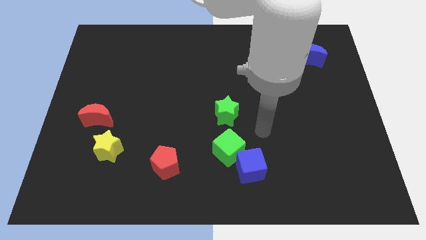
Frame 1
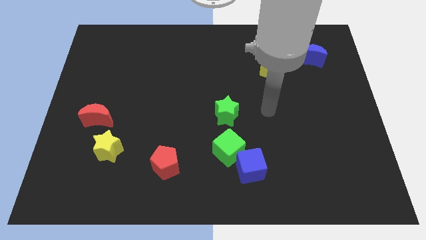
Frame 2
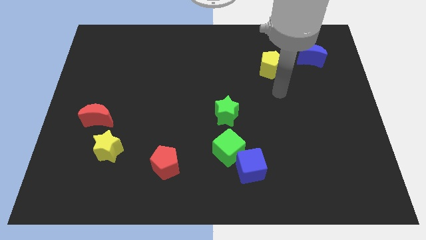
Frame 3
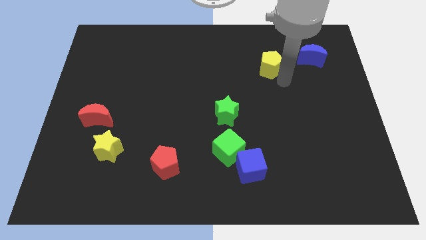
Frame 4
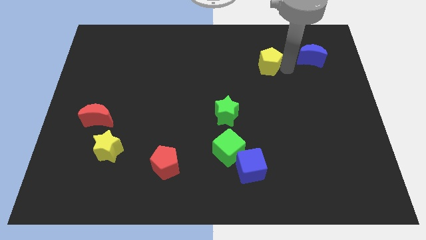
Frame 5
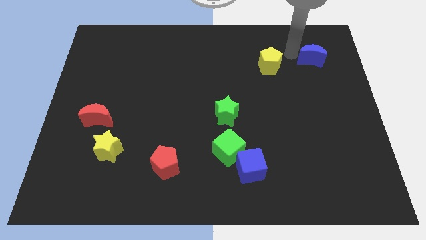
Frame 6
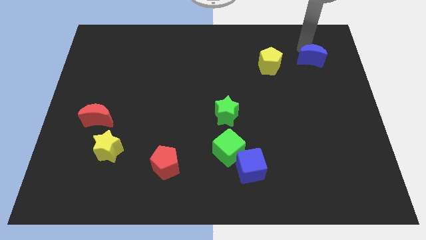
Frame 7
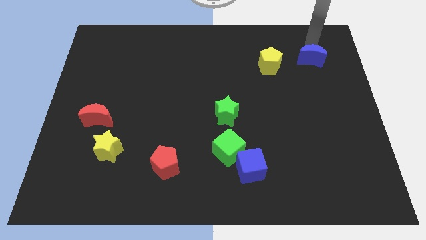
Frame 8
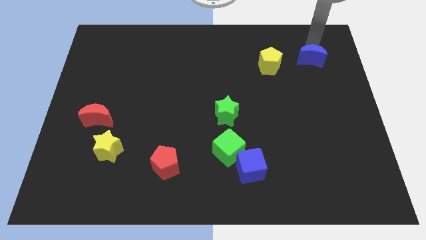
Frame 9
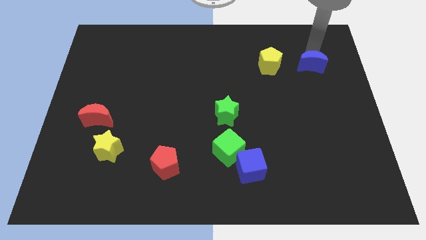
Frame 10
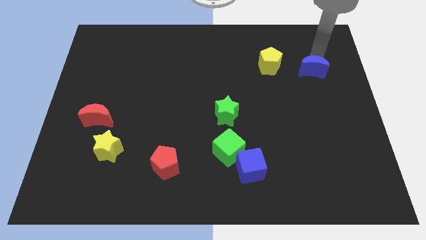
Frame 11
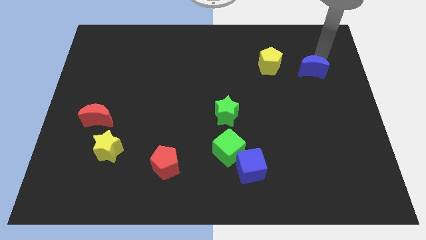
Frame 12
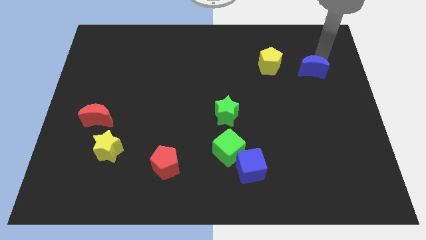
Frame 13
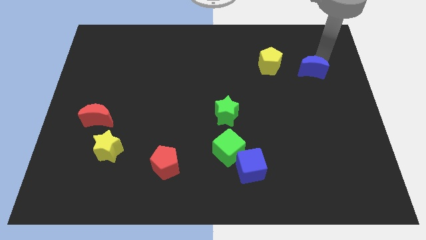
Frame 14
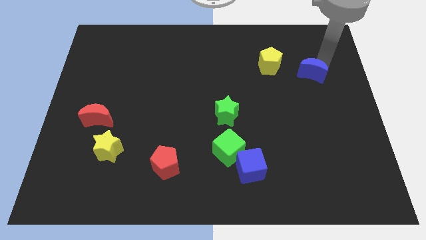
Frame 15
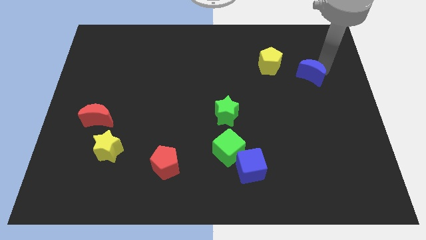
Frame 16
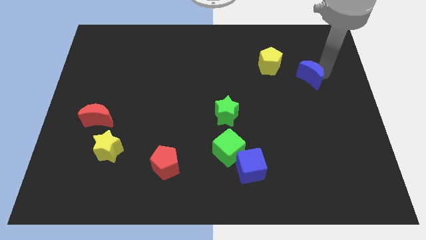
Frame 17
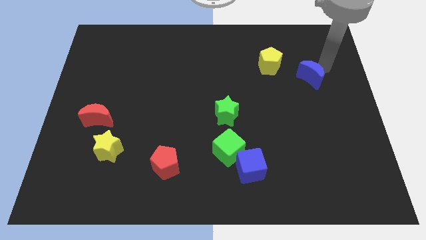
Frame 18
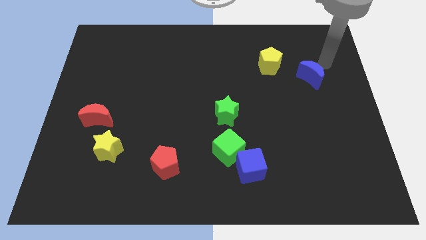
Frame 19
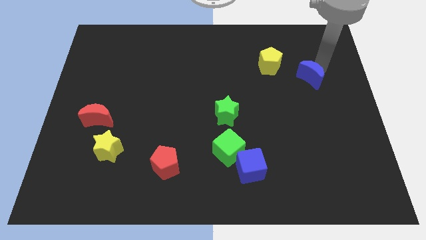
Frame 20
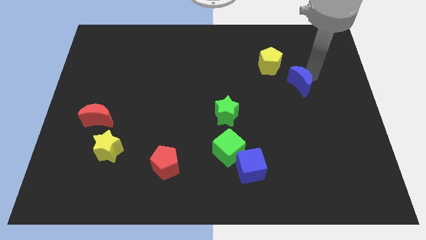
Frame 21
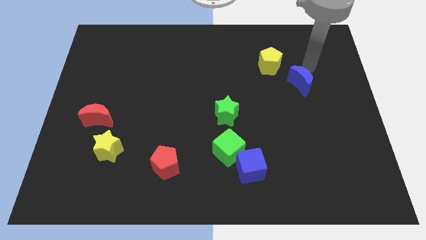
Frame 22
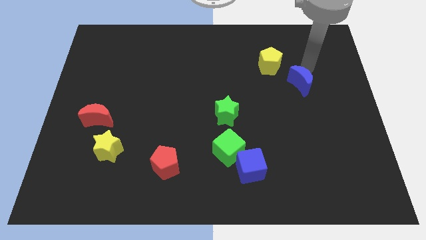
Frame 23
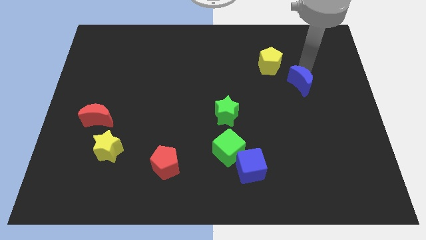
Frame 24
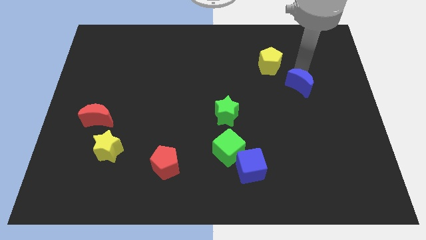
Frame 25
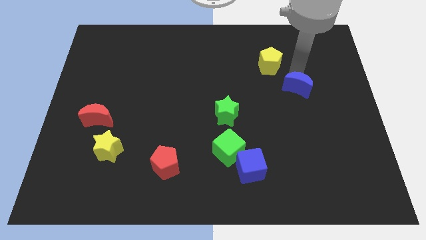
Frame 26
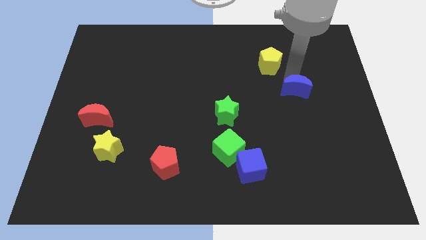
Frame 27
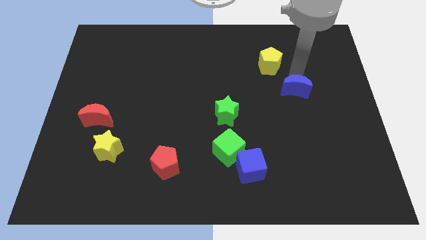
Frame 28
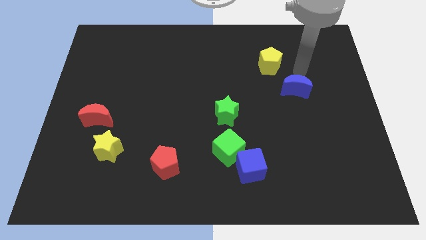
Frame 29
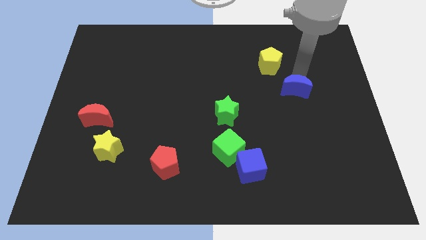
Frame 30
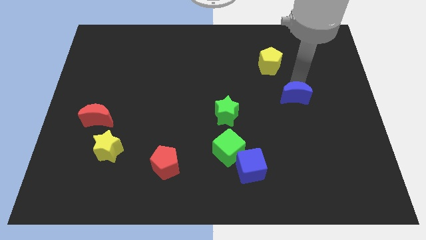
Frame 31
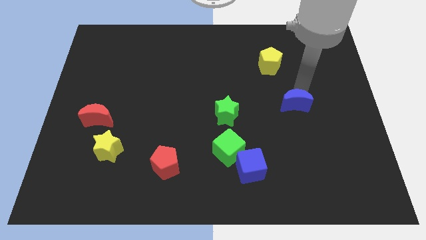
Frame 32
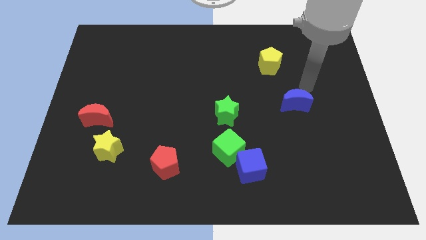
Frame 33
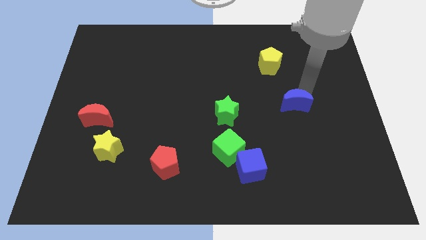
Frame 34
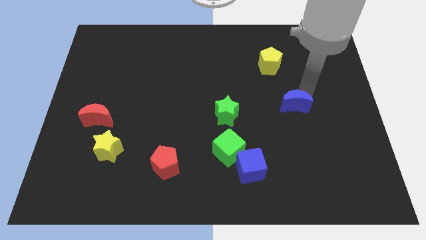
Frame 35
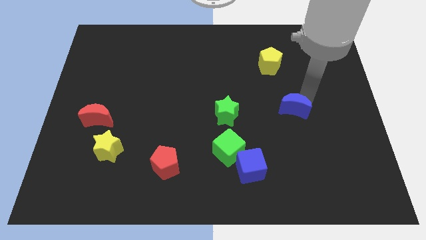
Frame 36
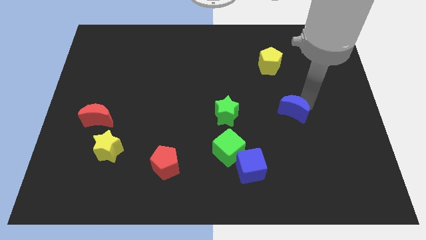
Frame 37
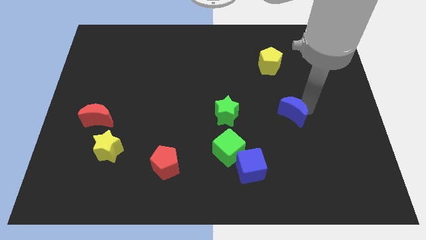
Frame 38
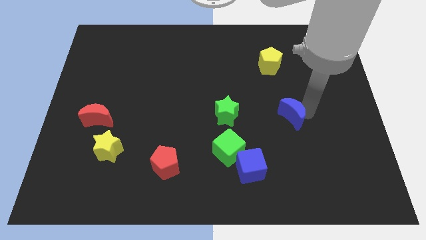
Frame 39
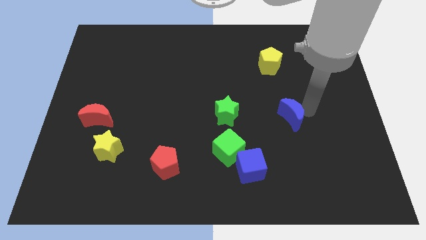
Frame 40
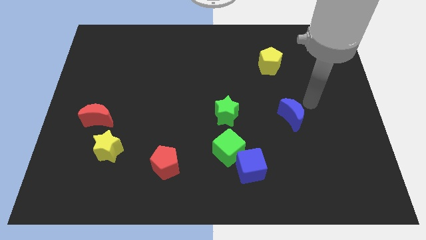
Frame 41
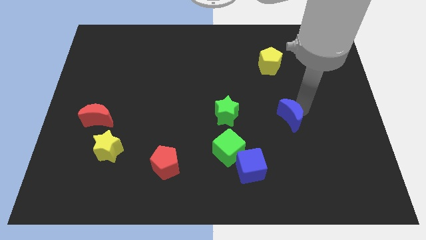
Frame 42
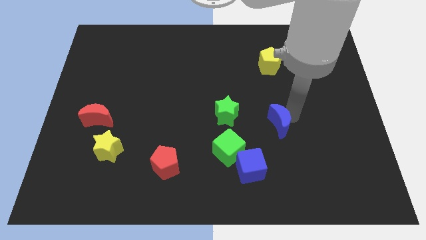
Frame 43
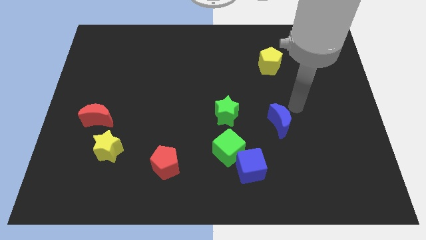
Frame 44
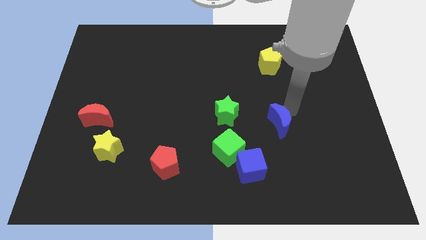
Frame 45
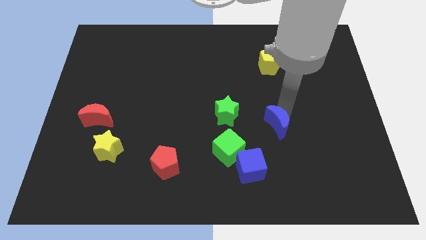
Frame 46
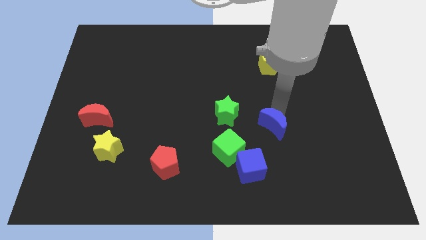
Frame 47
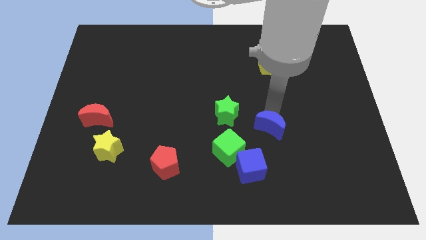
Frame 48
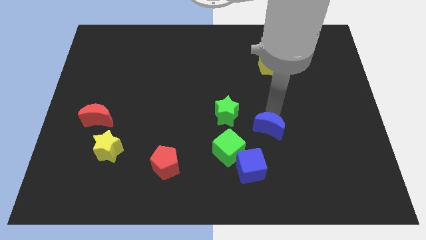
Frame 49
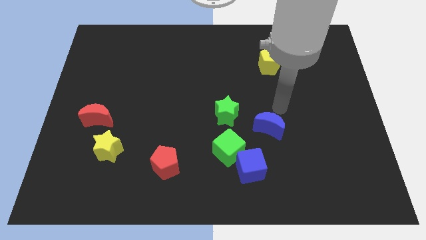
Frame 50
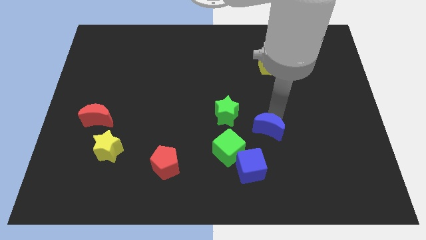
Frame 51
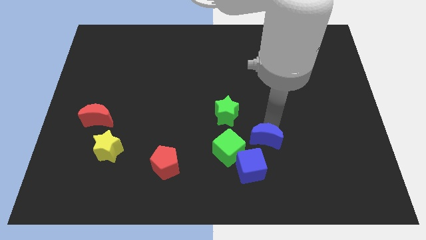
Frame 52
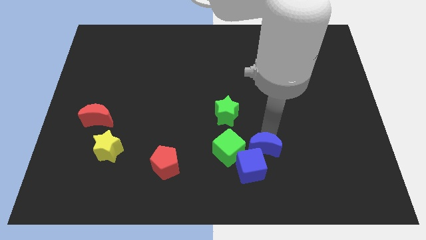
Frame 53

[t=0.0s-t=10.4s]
slide the blue moon to the blue cube

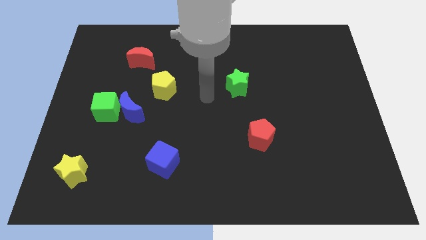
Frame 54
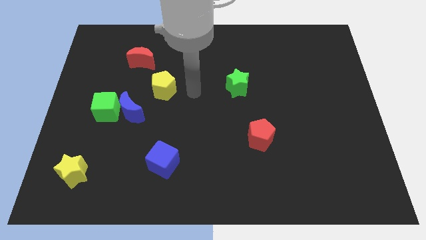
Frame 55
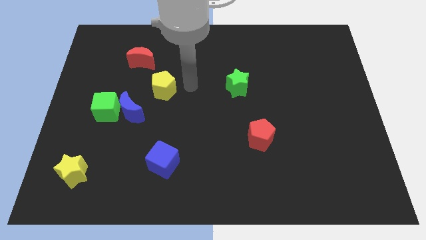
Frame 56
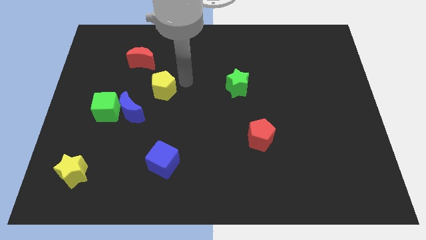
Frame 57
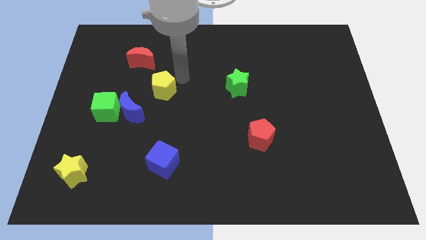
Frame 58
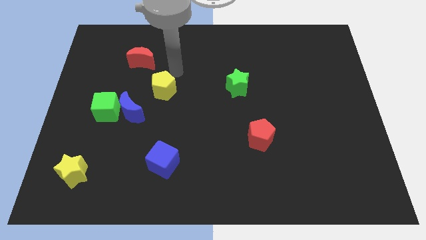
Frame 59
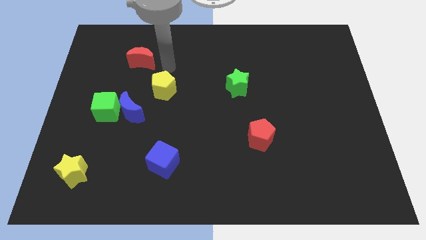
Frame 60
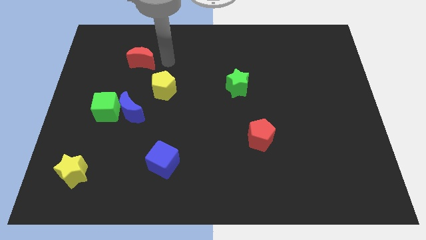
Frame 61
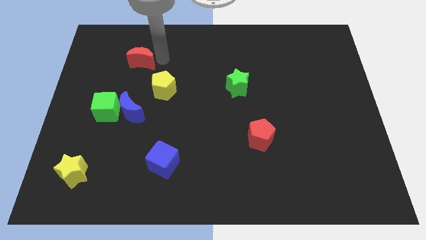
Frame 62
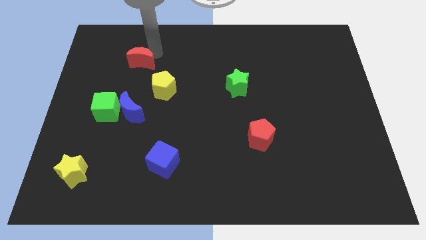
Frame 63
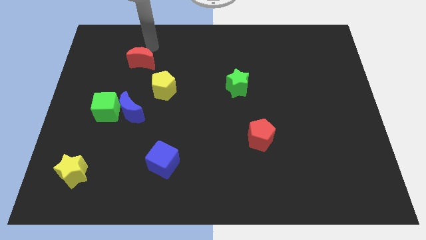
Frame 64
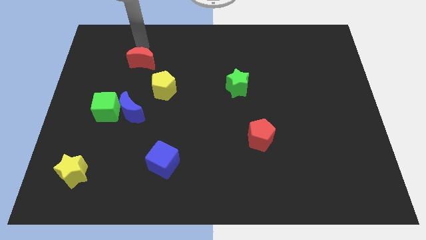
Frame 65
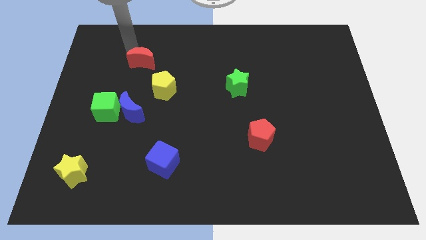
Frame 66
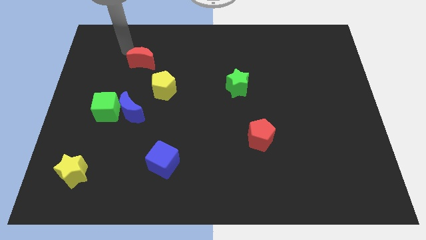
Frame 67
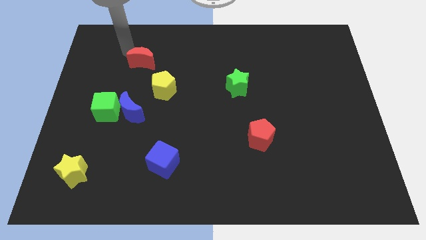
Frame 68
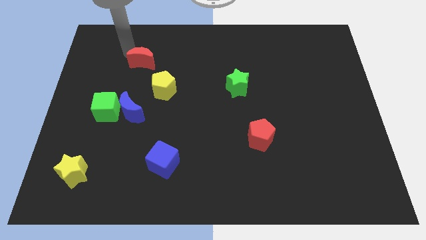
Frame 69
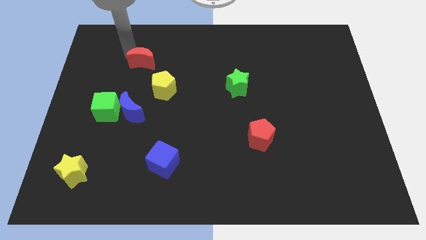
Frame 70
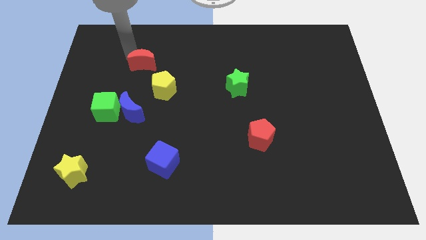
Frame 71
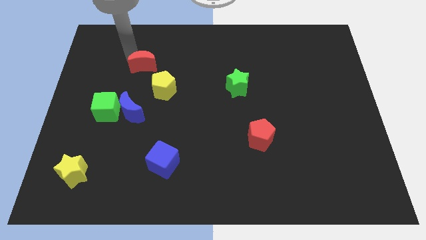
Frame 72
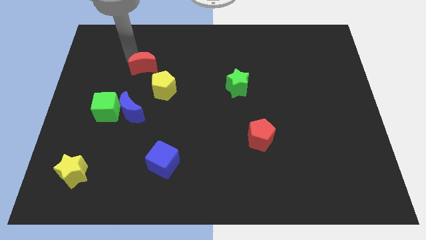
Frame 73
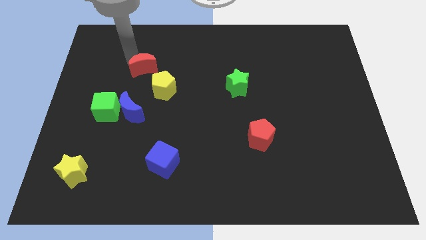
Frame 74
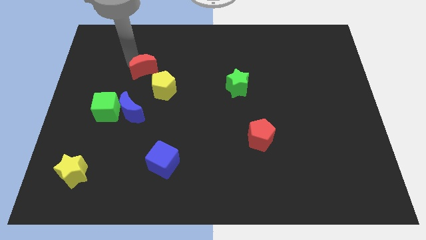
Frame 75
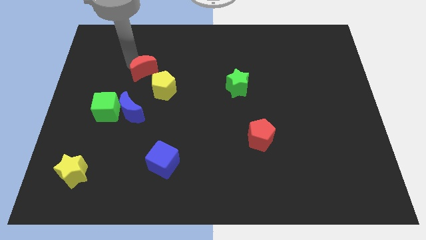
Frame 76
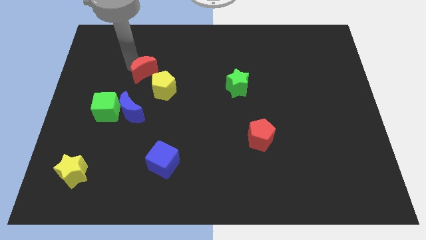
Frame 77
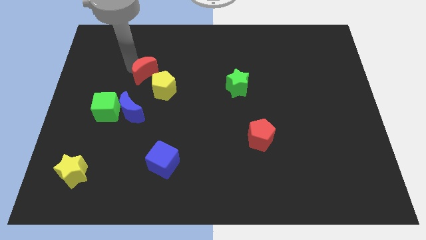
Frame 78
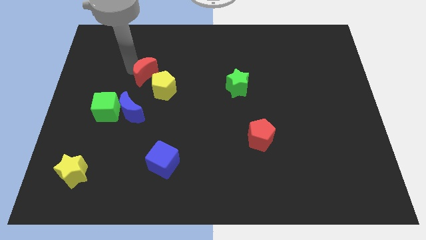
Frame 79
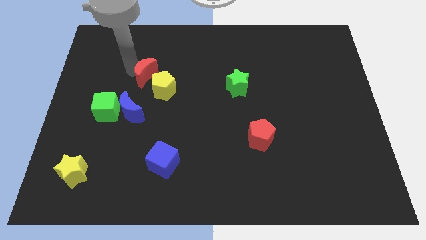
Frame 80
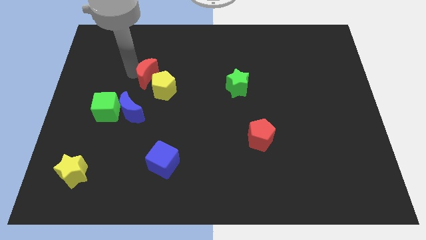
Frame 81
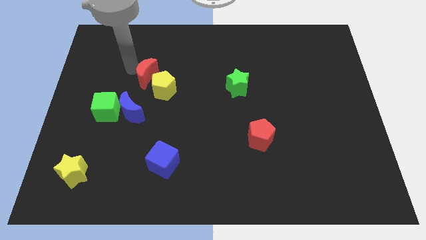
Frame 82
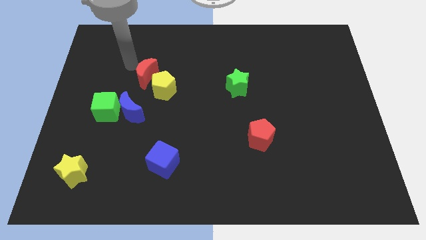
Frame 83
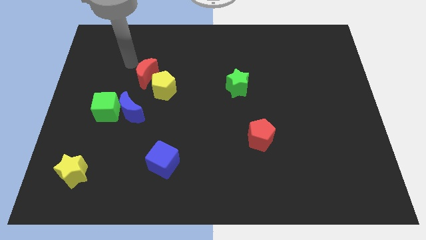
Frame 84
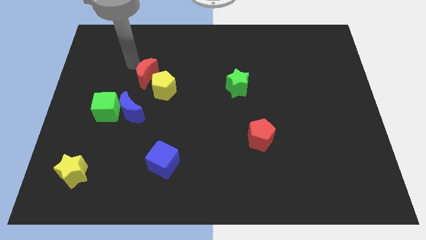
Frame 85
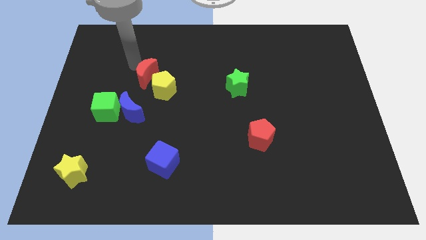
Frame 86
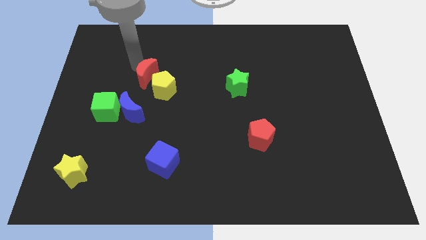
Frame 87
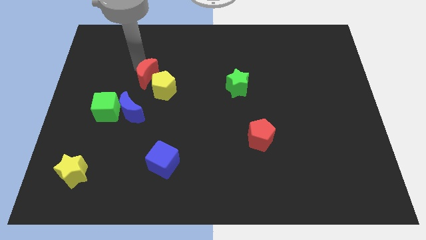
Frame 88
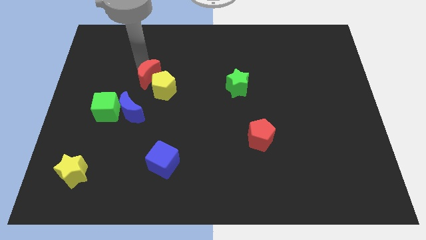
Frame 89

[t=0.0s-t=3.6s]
slide the red moon to the yellow pentagon
